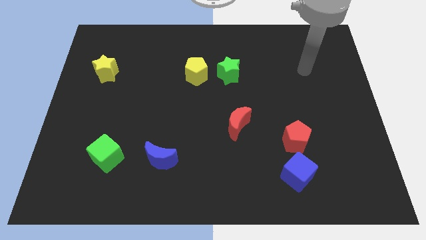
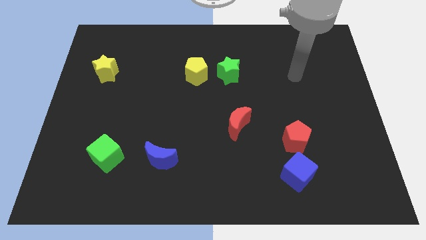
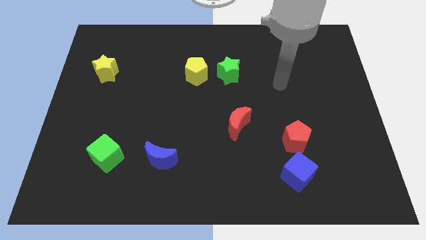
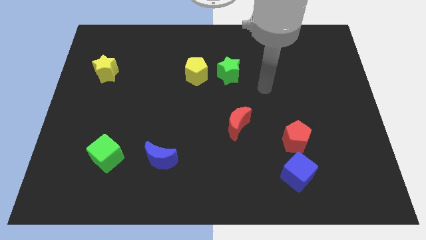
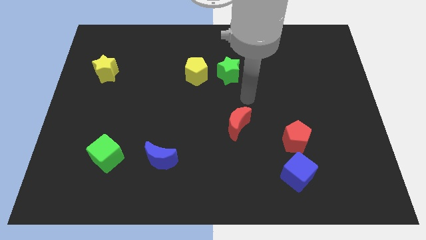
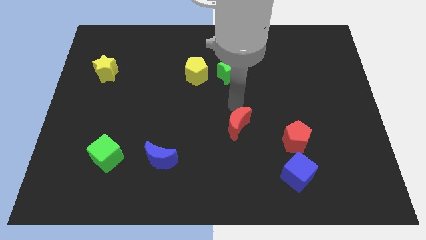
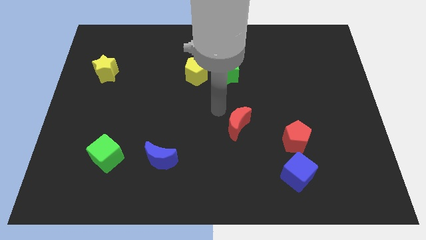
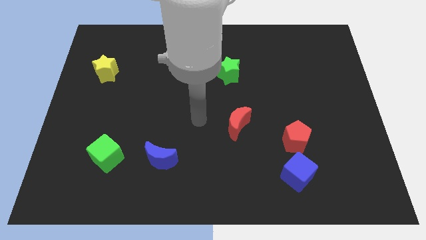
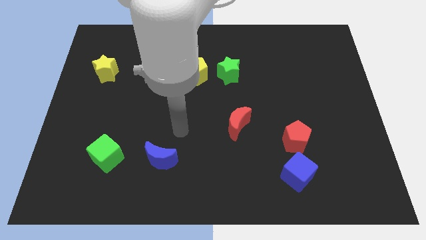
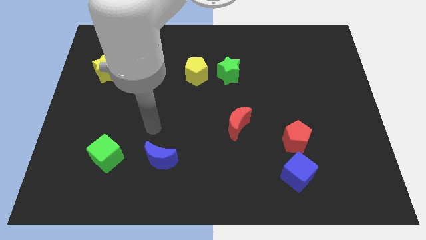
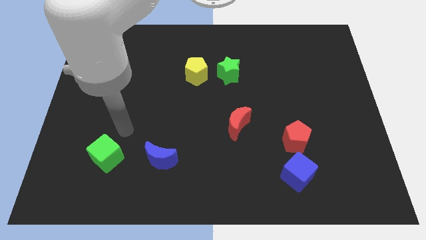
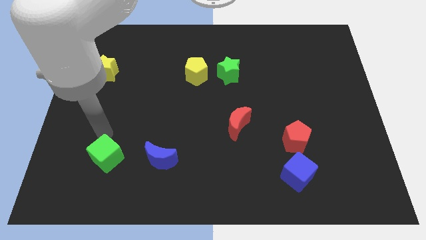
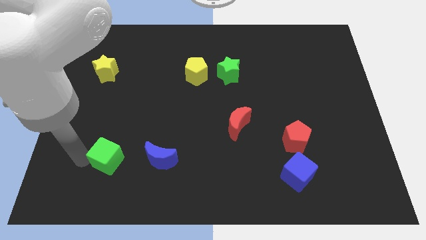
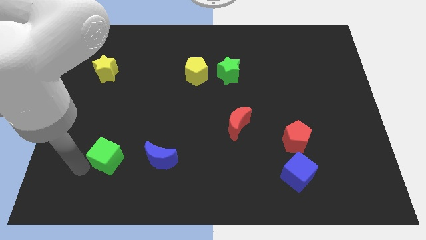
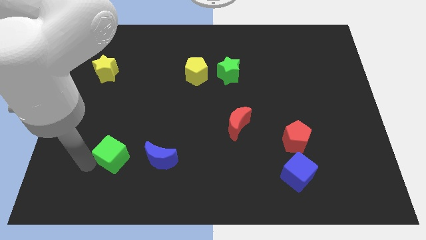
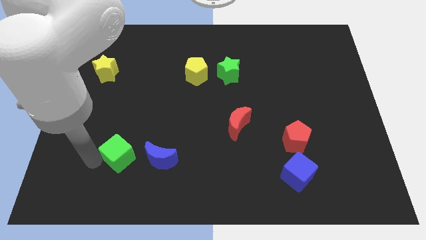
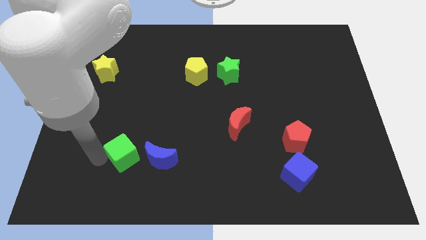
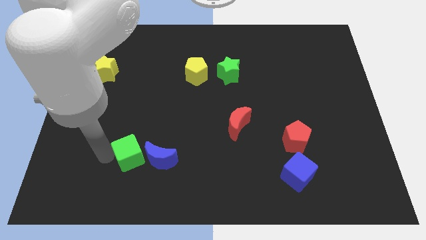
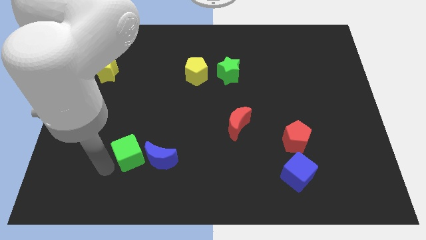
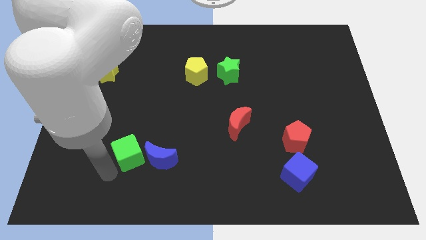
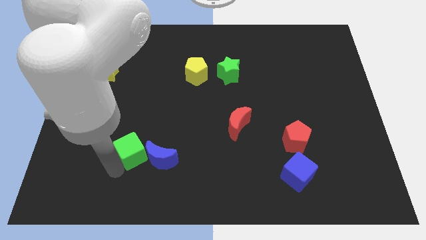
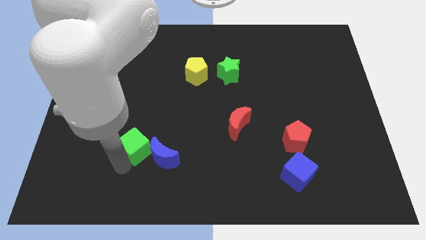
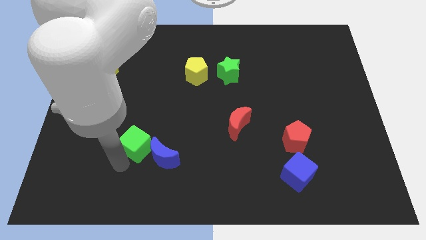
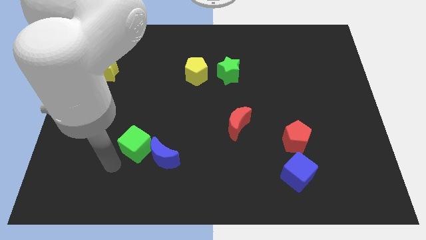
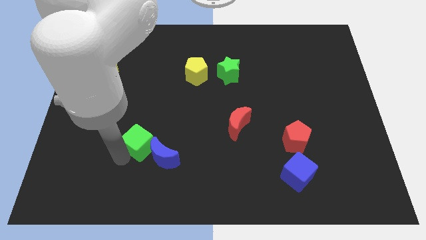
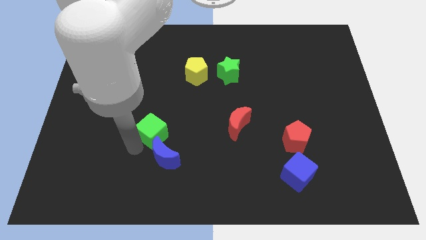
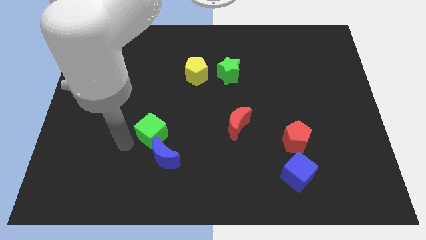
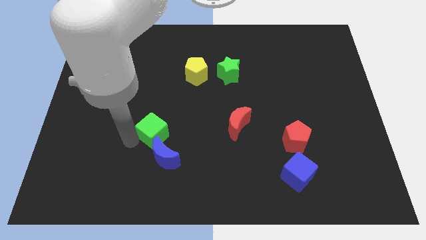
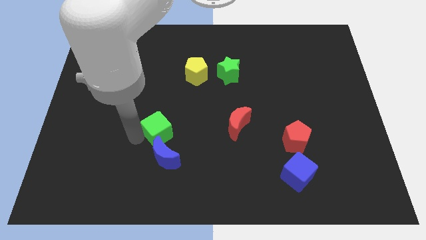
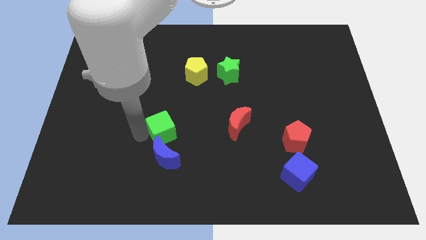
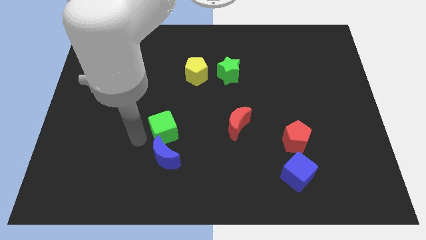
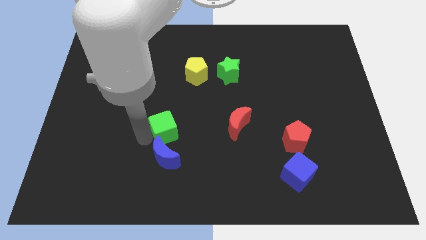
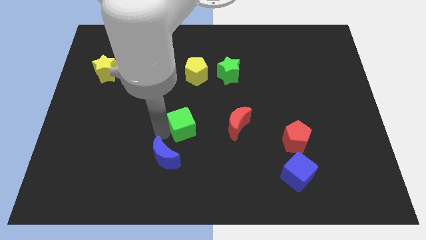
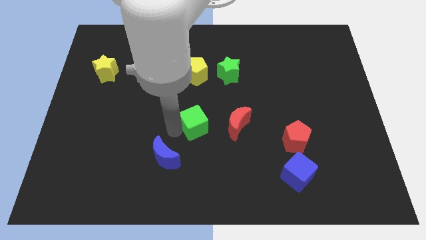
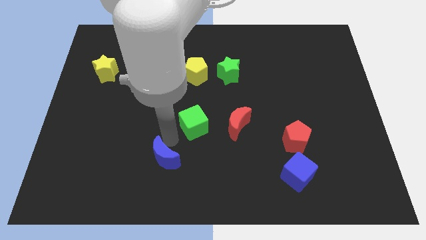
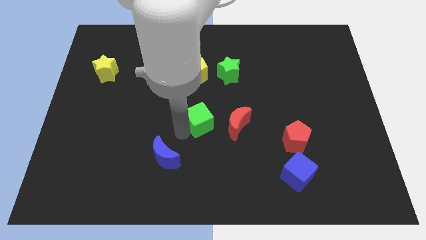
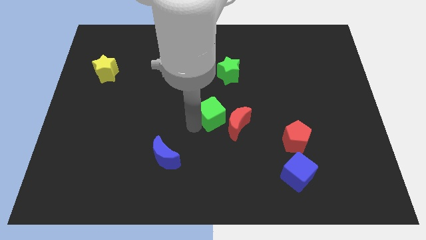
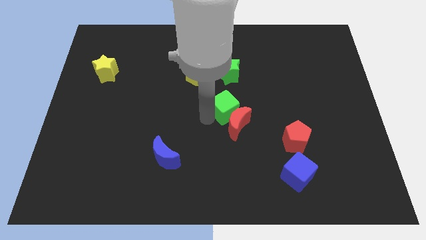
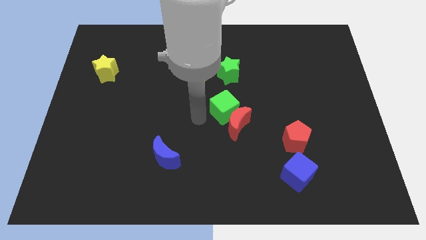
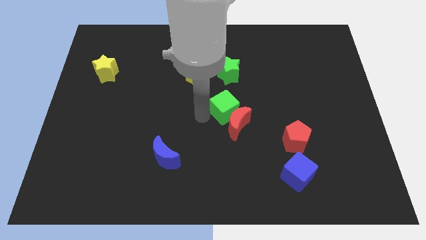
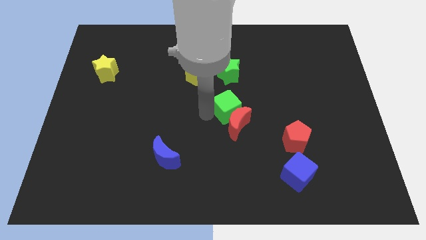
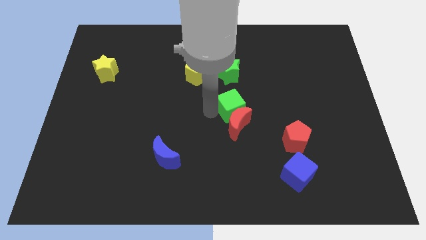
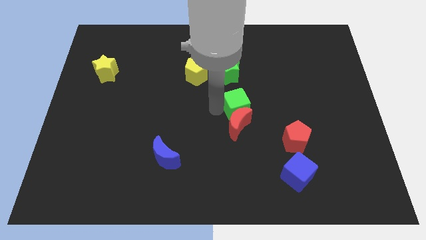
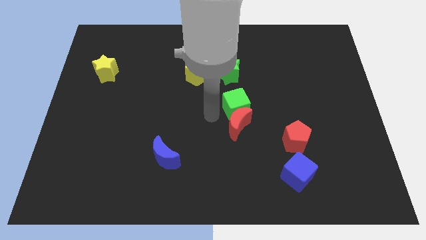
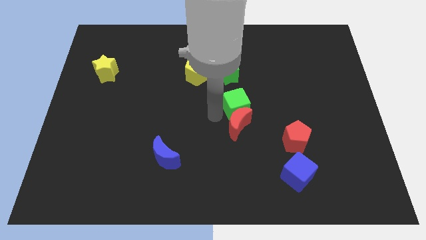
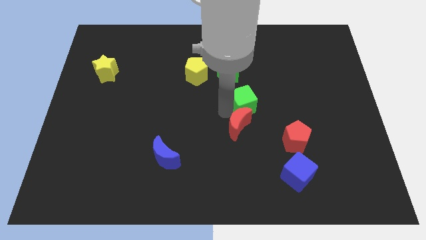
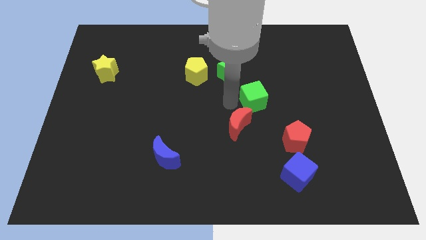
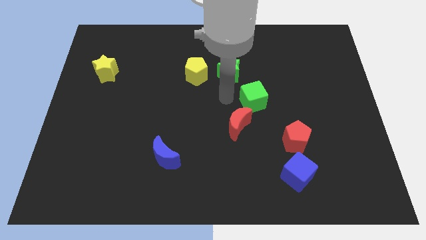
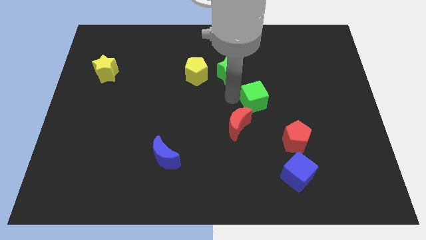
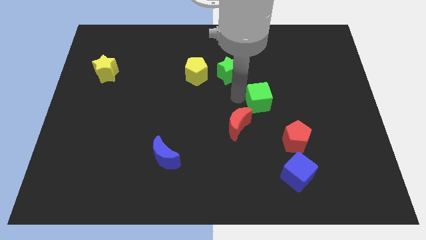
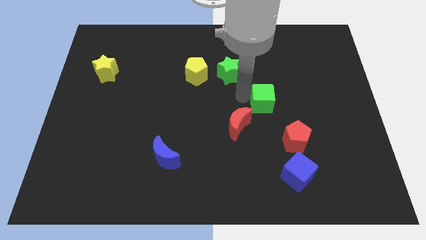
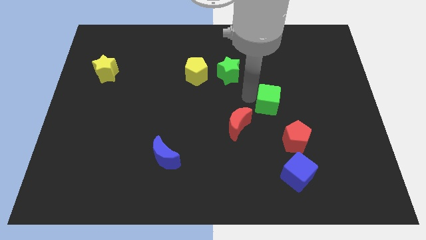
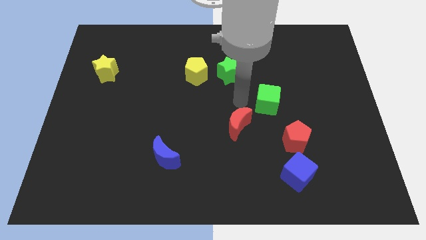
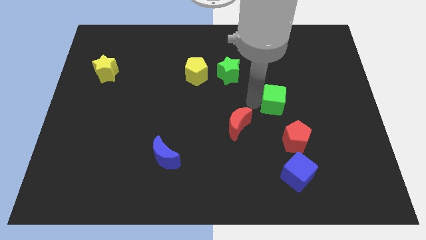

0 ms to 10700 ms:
slide the green cube to the top side of the red pentagon

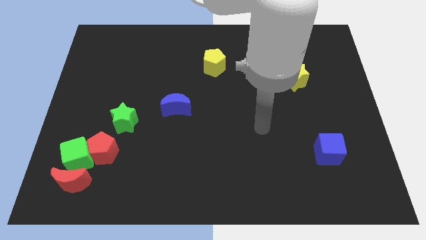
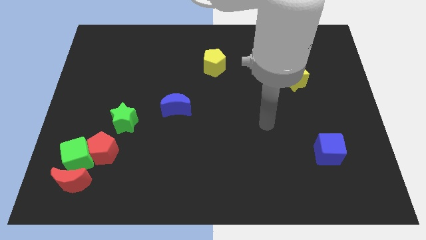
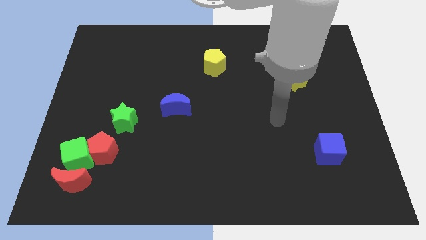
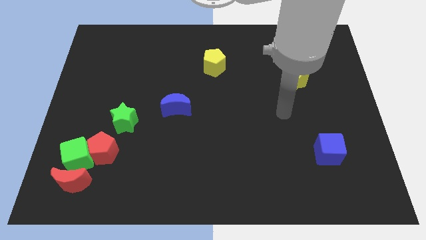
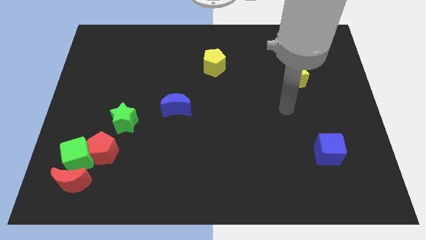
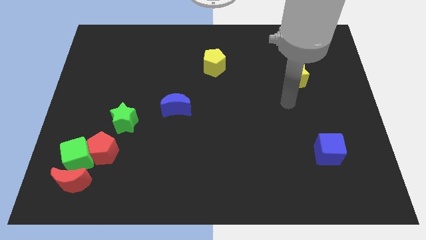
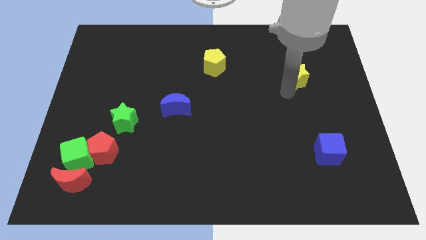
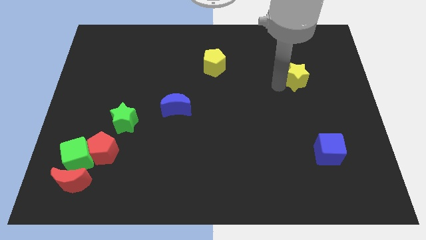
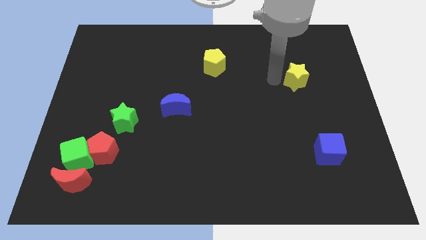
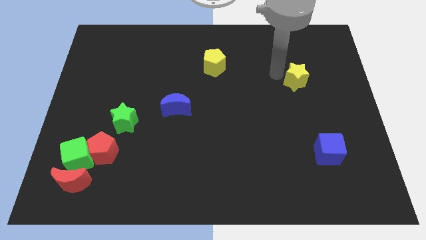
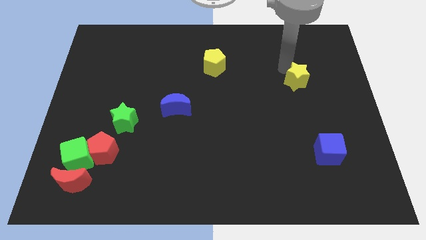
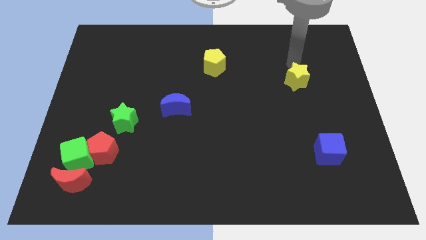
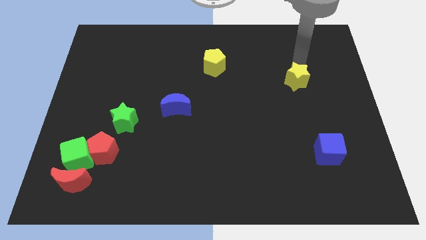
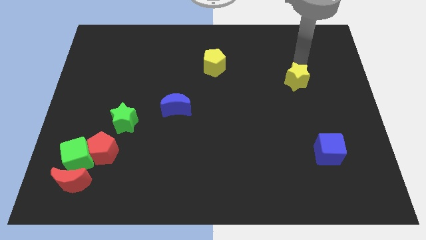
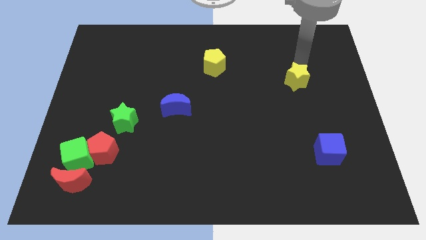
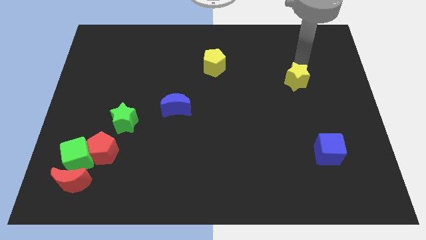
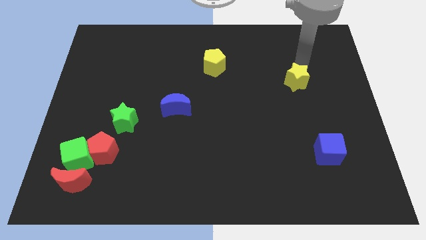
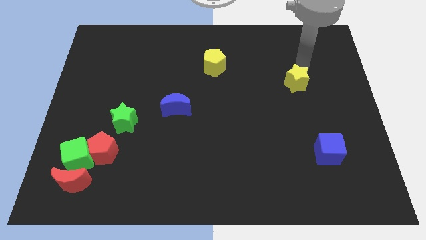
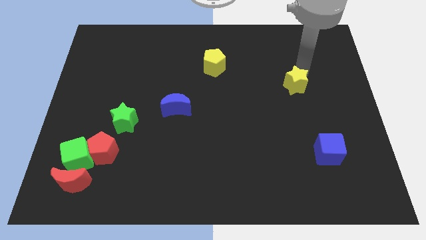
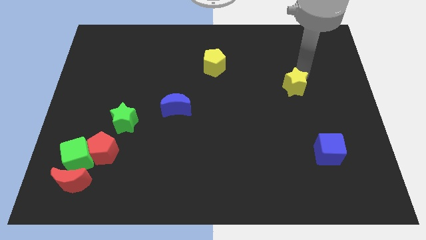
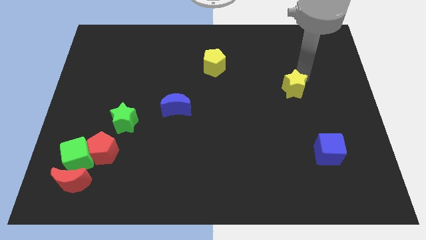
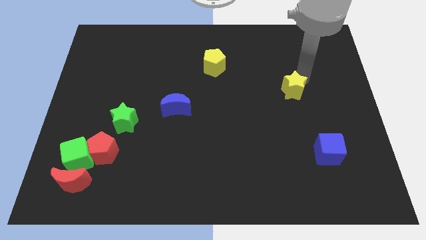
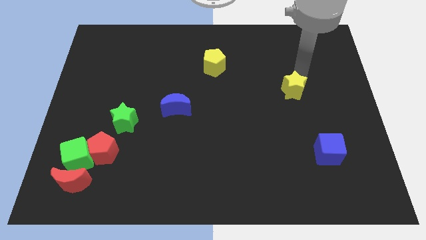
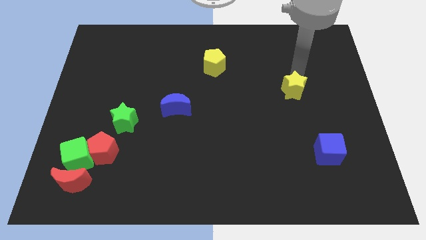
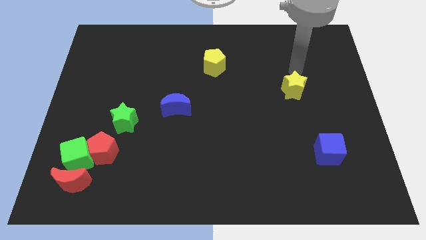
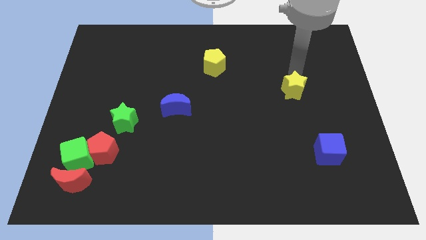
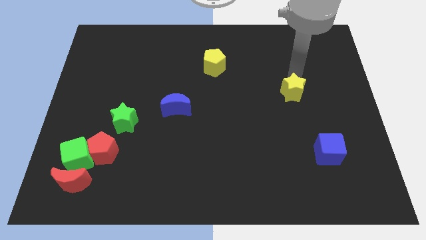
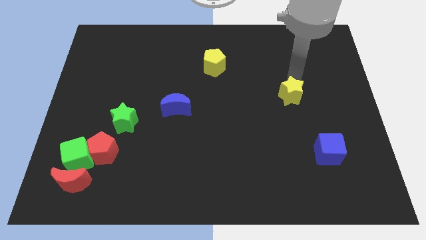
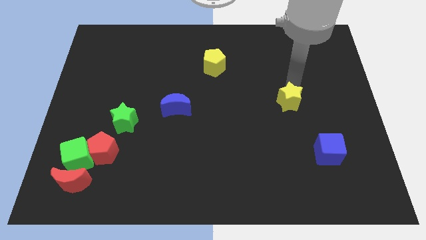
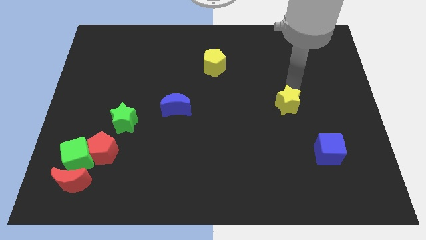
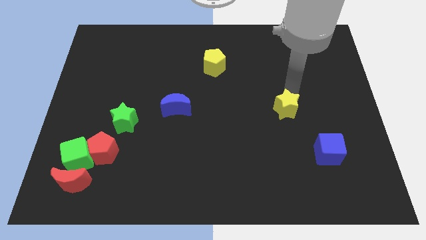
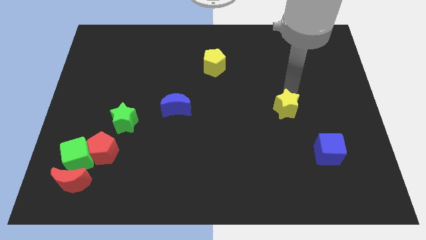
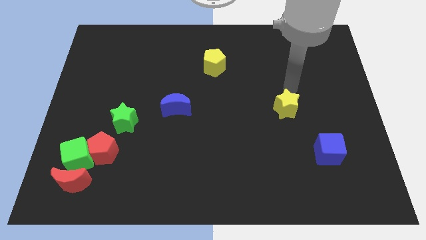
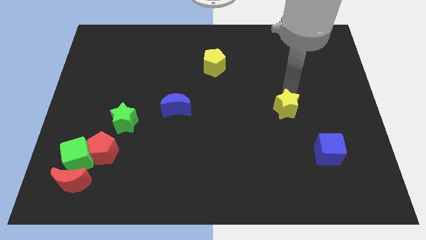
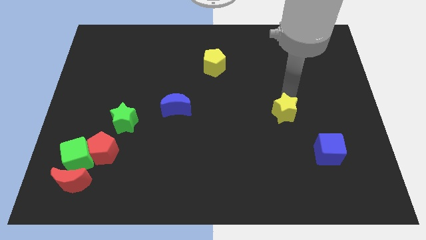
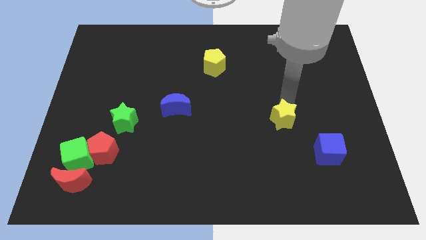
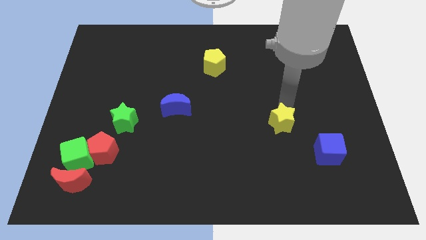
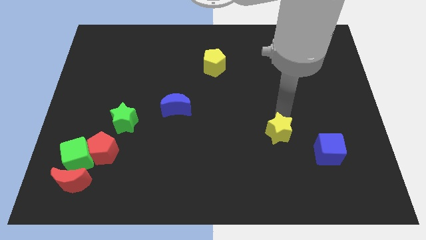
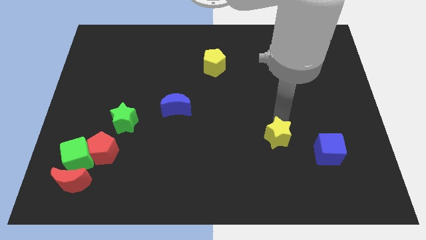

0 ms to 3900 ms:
put the yellow star left of the blue cube
